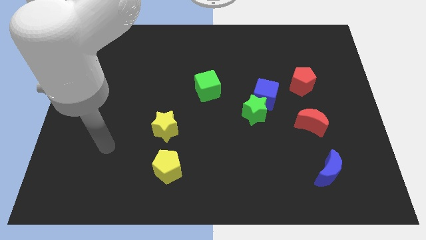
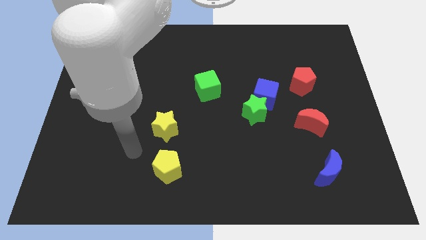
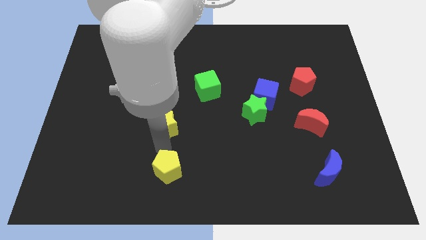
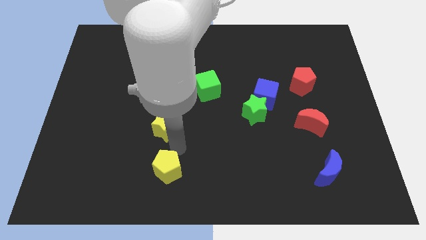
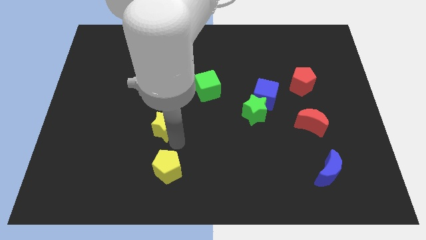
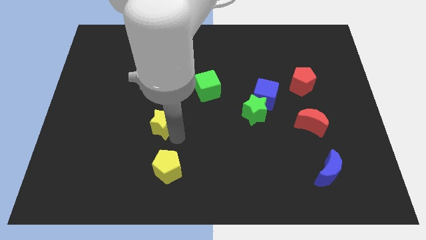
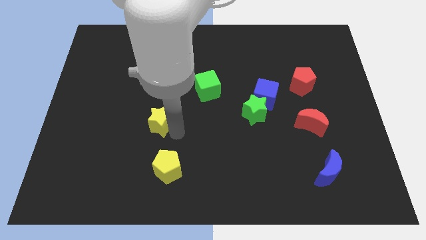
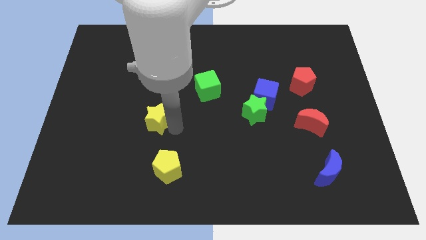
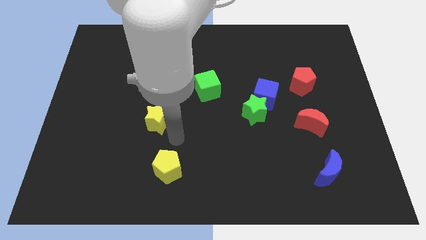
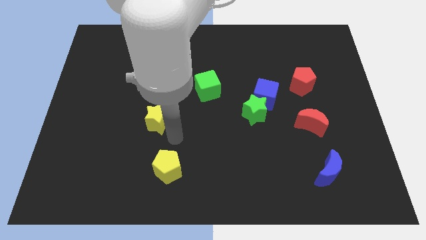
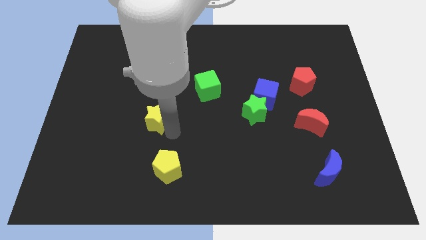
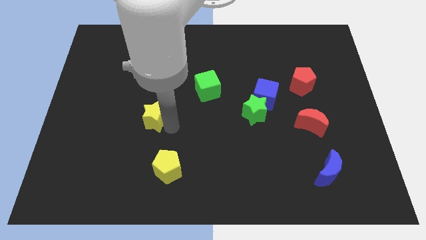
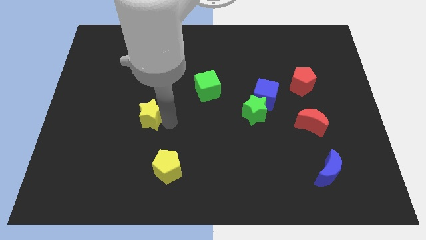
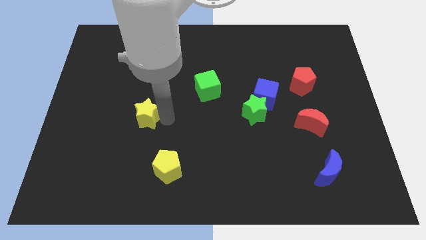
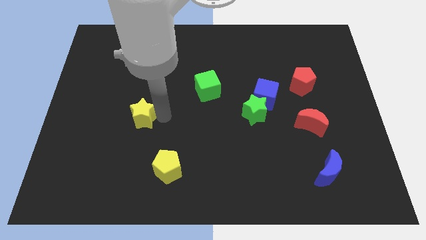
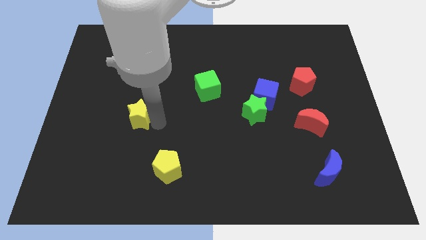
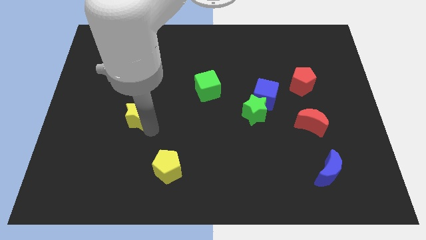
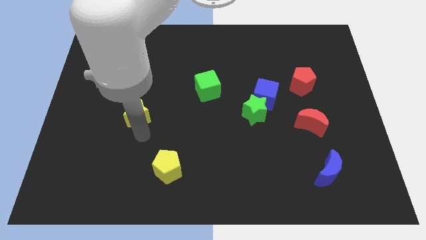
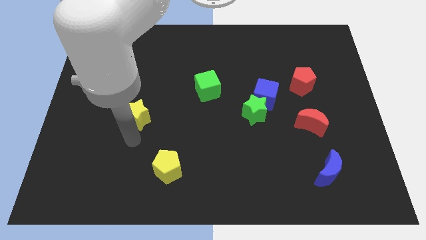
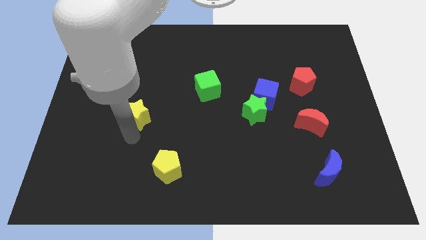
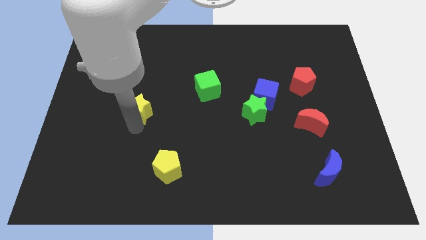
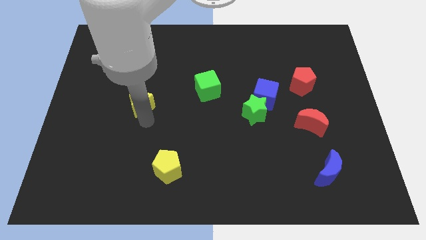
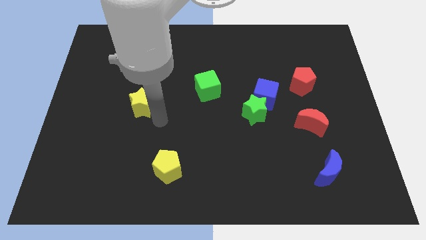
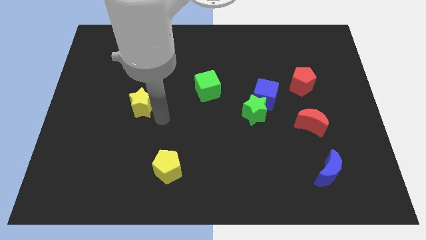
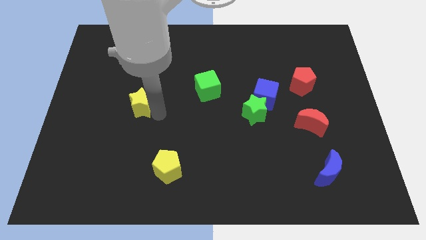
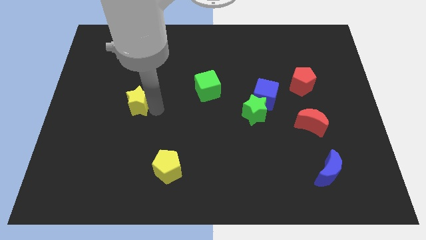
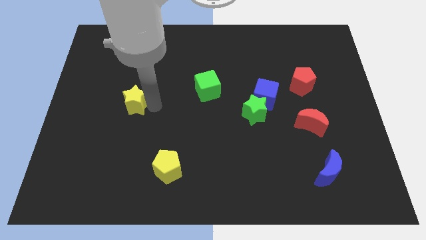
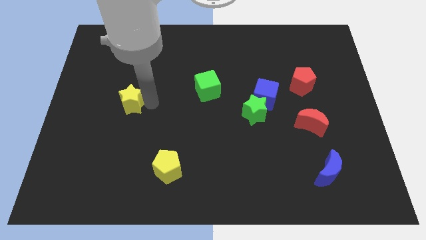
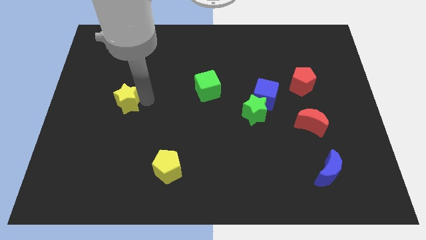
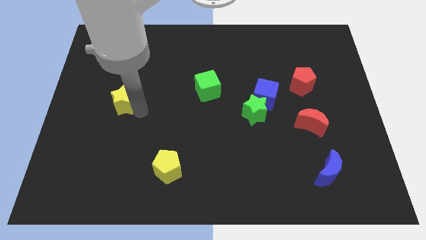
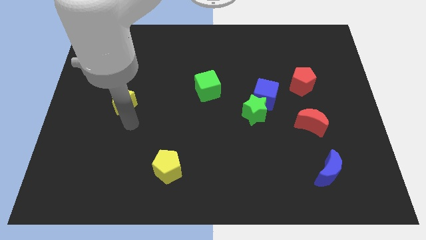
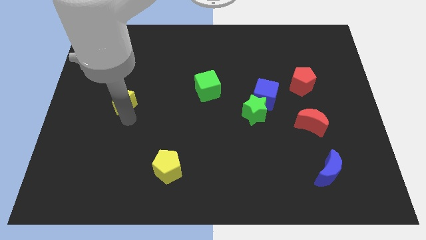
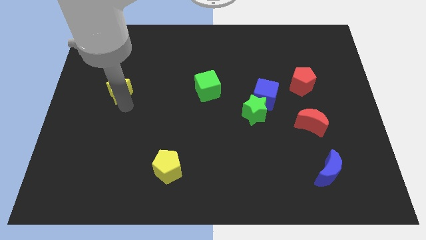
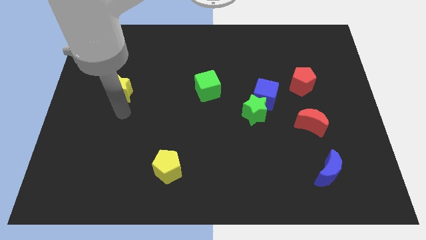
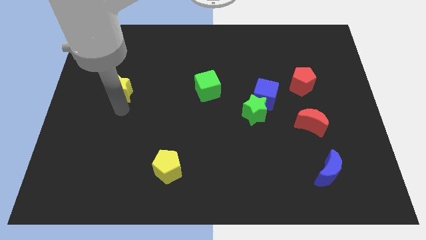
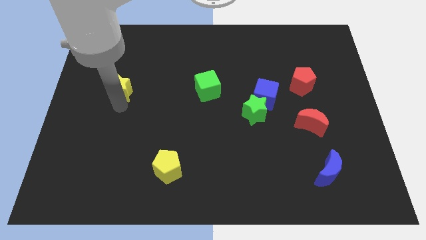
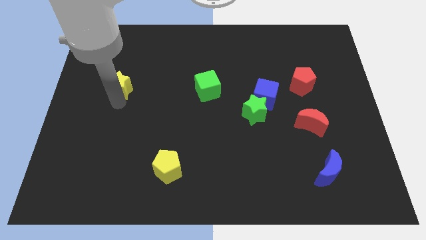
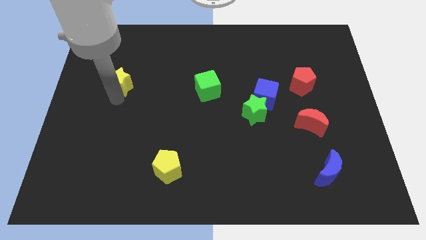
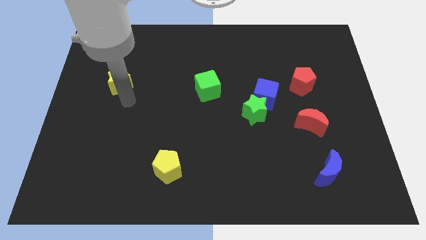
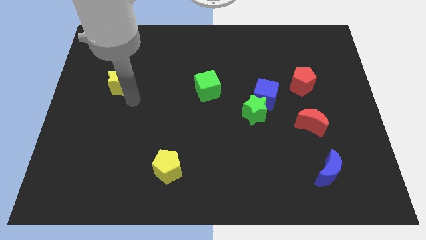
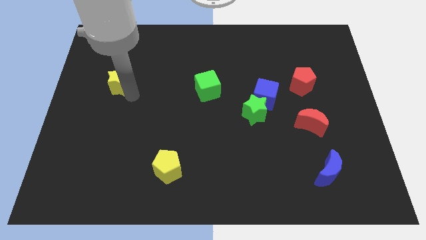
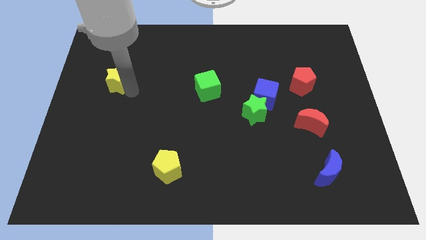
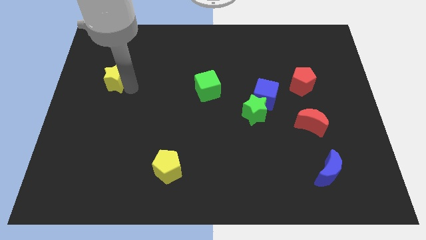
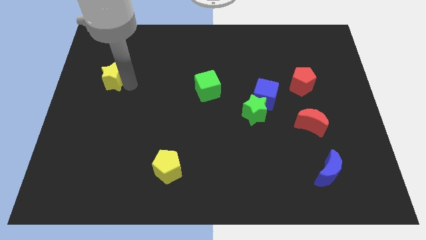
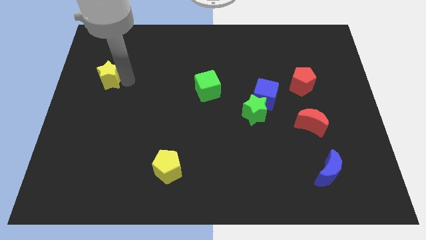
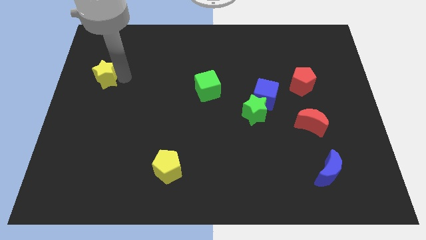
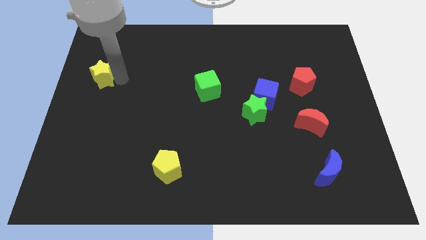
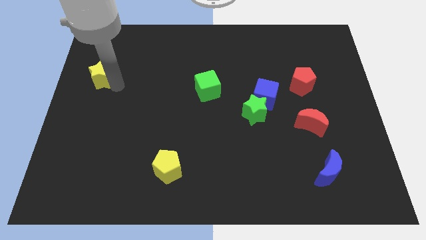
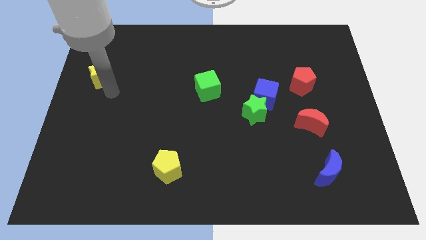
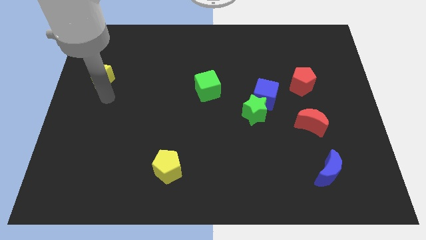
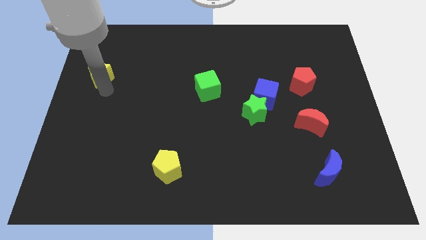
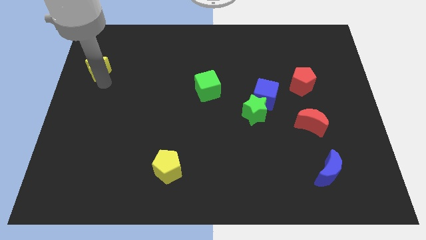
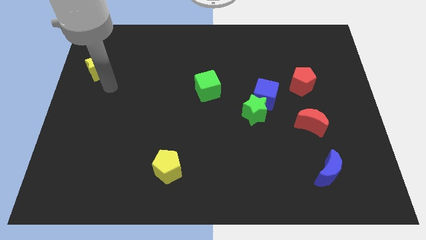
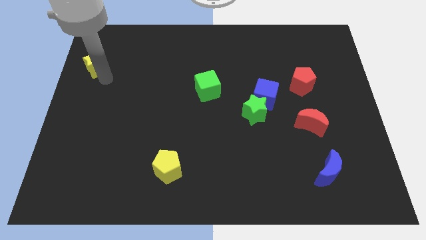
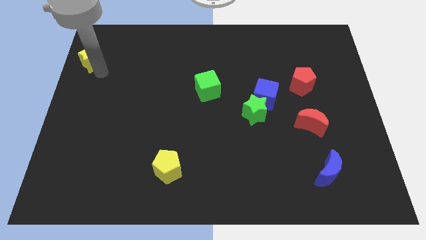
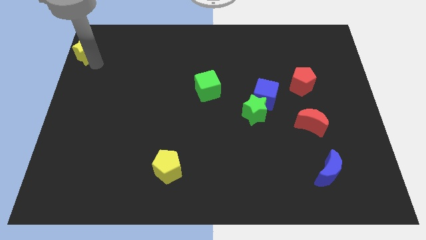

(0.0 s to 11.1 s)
push the yellow star to the top left
